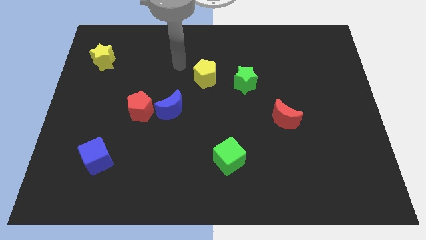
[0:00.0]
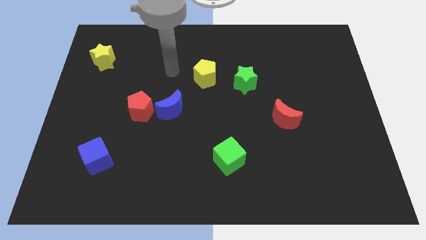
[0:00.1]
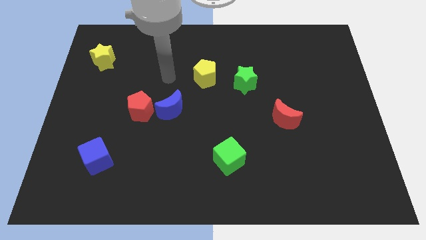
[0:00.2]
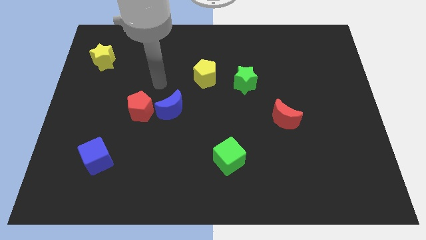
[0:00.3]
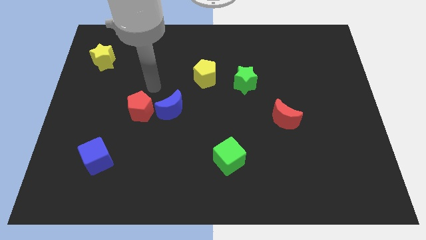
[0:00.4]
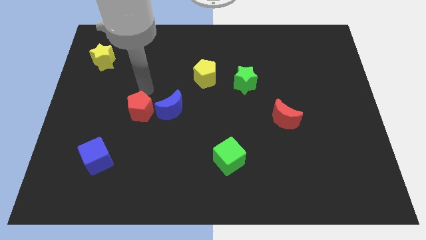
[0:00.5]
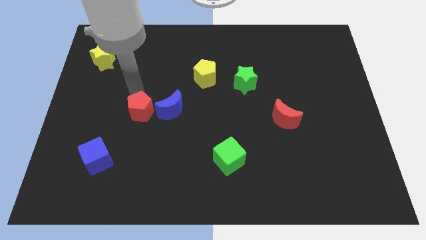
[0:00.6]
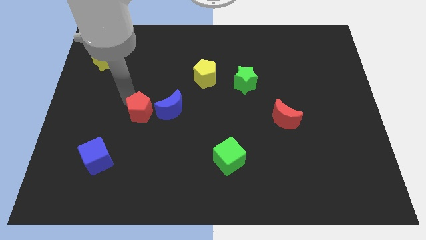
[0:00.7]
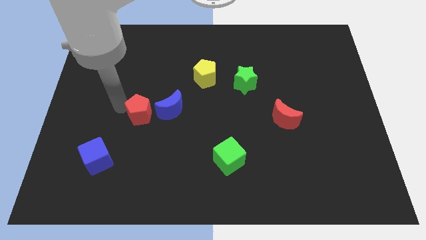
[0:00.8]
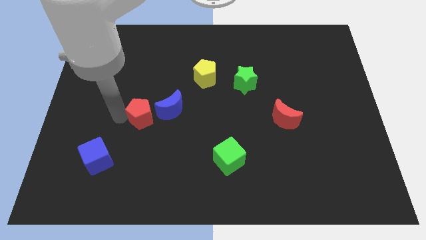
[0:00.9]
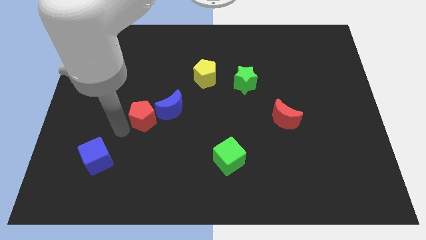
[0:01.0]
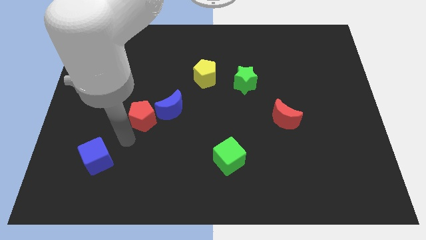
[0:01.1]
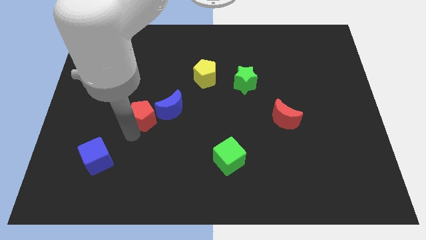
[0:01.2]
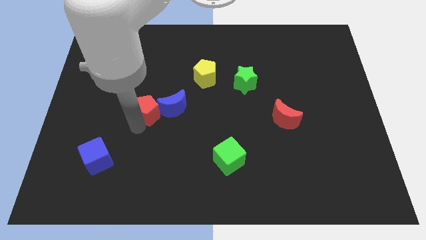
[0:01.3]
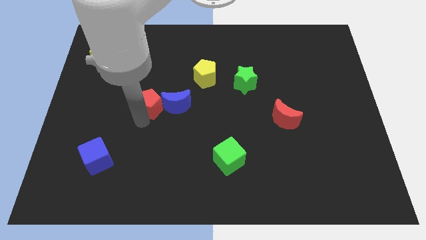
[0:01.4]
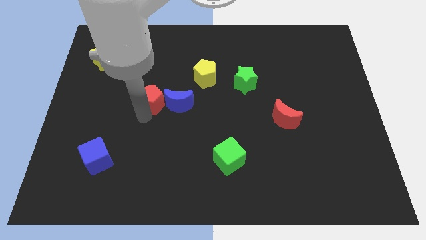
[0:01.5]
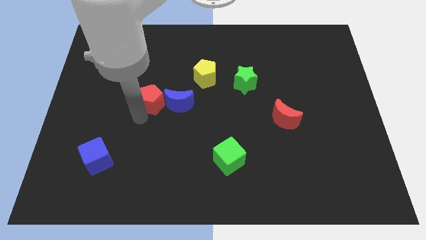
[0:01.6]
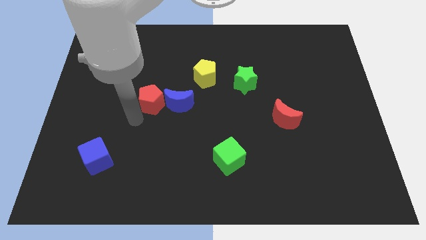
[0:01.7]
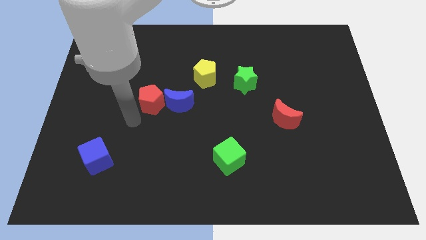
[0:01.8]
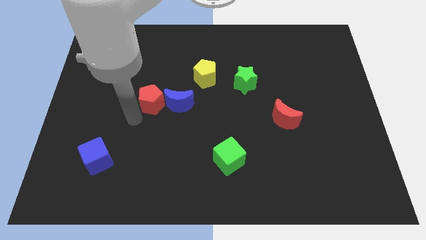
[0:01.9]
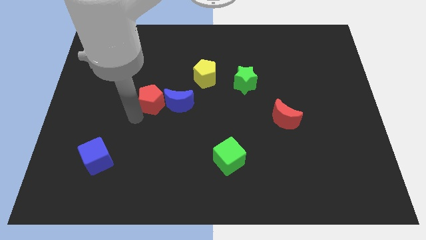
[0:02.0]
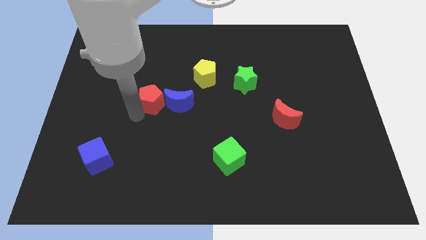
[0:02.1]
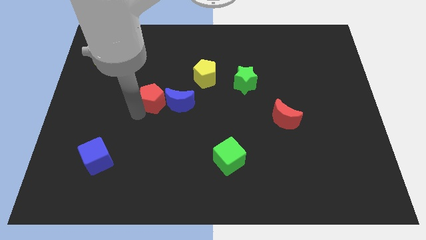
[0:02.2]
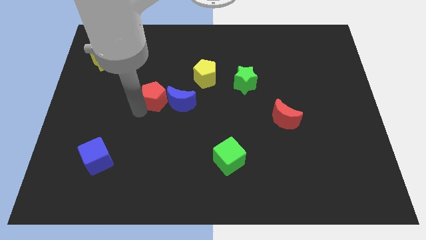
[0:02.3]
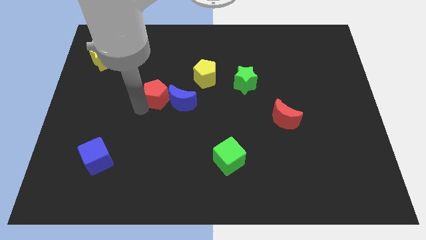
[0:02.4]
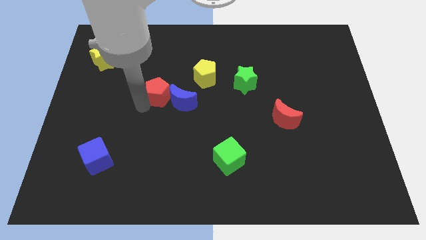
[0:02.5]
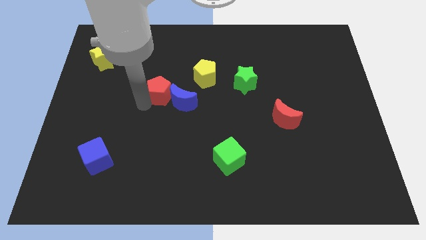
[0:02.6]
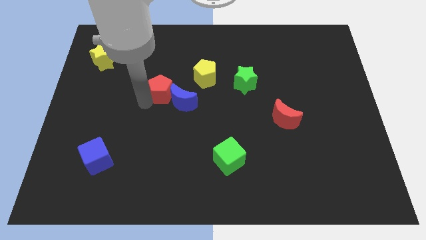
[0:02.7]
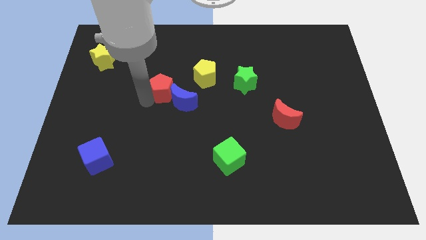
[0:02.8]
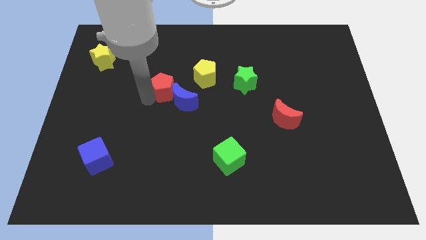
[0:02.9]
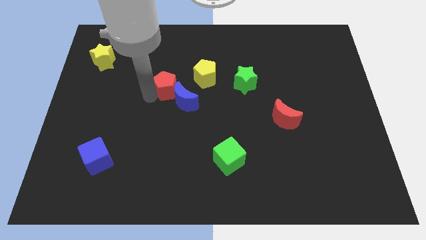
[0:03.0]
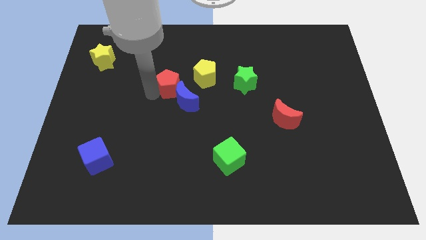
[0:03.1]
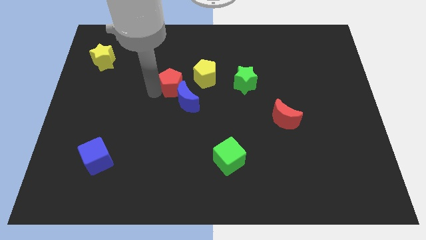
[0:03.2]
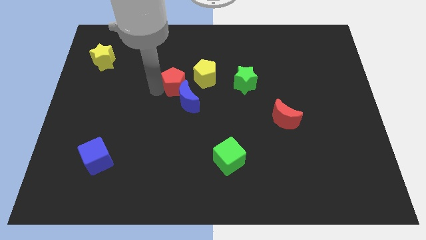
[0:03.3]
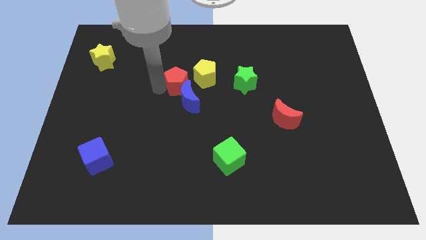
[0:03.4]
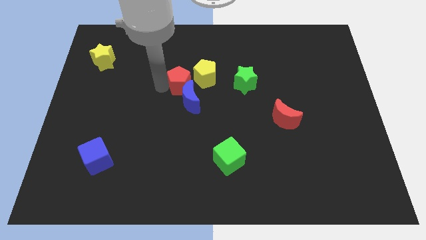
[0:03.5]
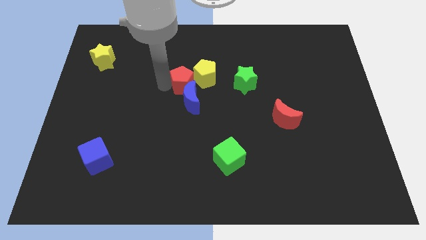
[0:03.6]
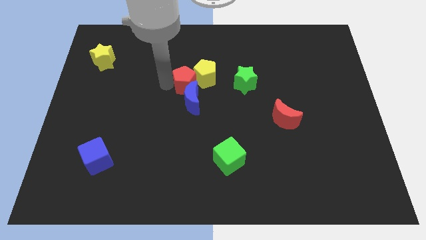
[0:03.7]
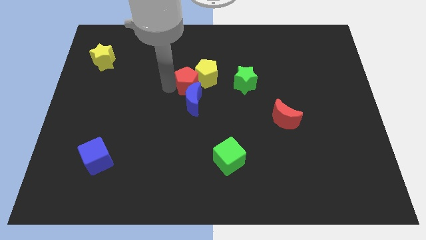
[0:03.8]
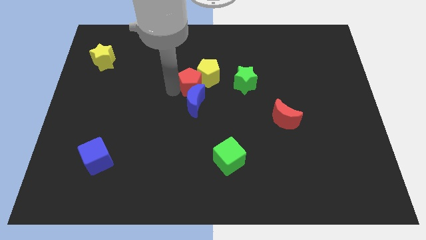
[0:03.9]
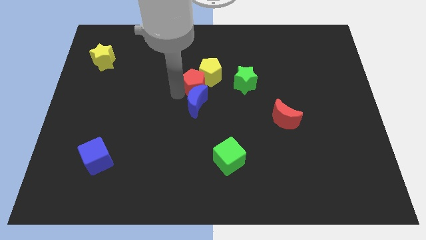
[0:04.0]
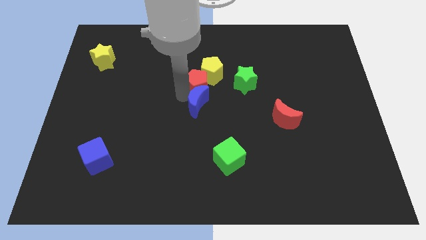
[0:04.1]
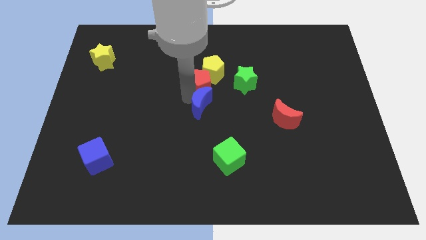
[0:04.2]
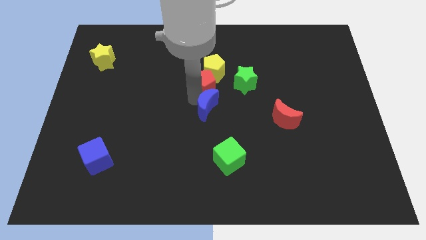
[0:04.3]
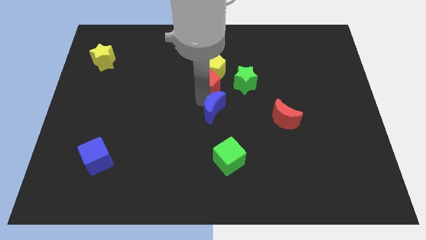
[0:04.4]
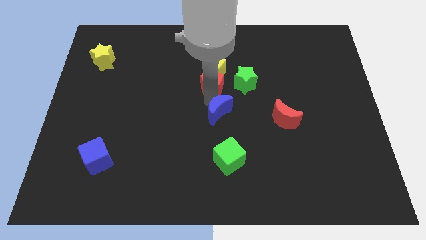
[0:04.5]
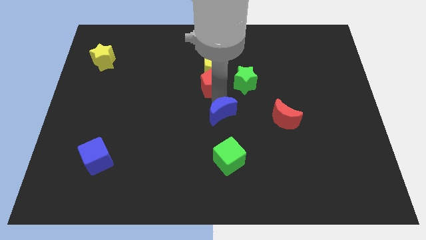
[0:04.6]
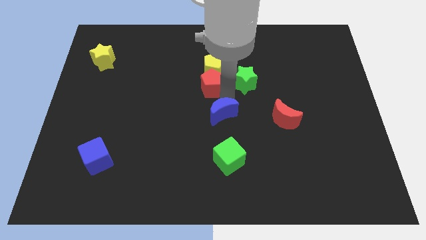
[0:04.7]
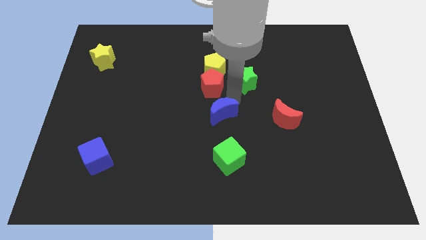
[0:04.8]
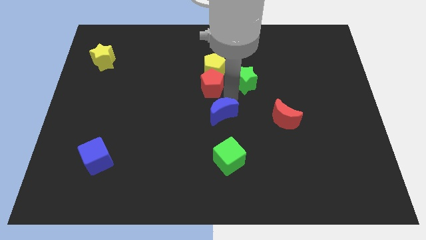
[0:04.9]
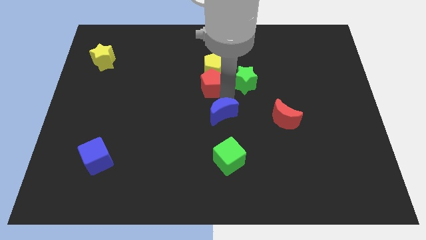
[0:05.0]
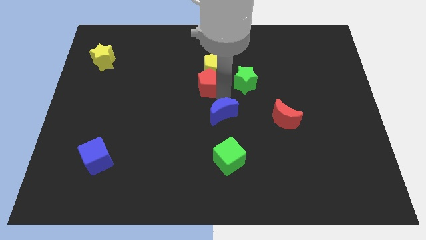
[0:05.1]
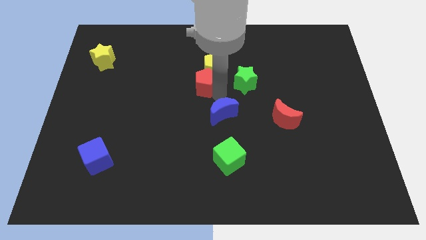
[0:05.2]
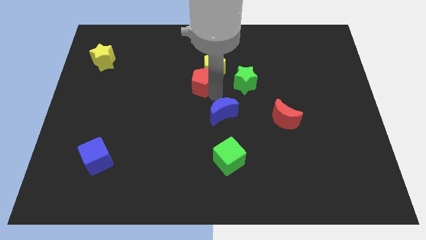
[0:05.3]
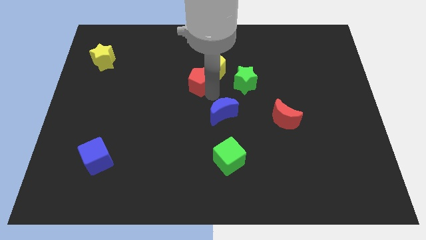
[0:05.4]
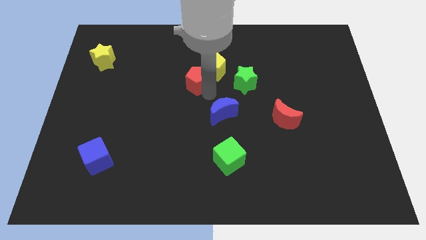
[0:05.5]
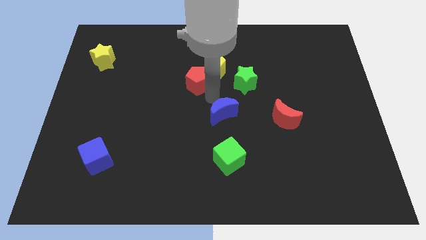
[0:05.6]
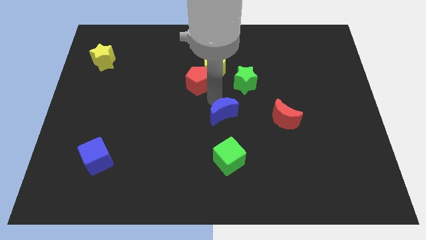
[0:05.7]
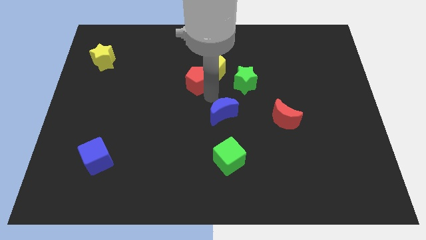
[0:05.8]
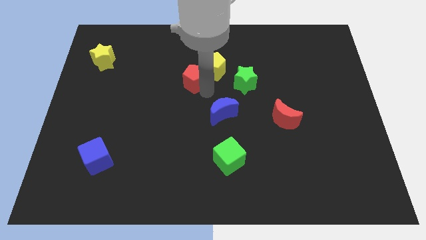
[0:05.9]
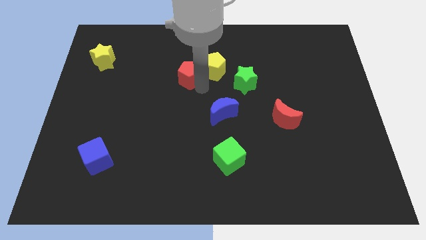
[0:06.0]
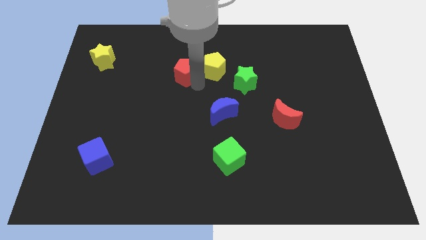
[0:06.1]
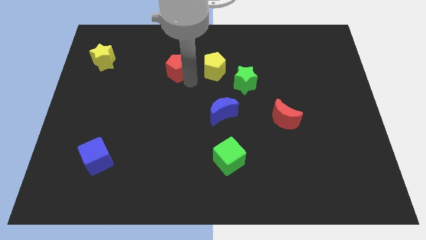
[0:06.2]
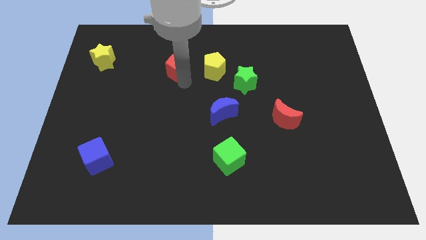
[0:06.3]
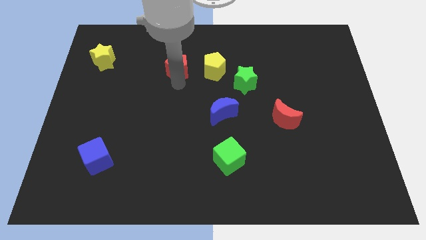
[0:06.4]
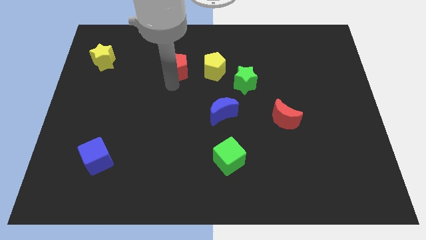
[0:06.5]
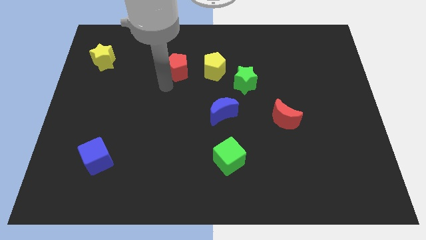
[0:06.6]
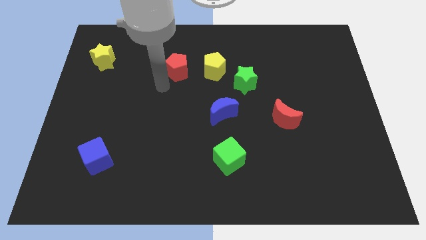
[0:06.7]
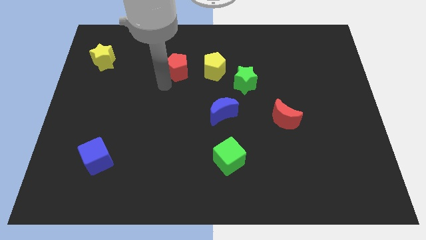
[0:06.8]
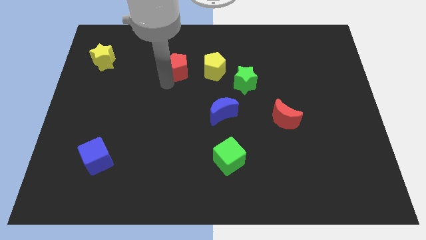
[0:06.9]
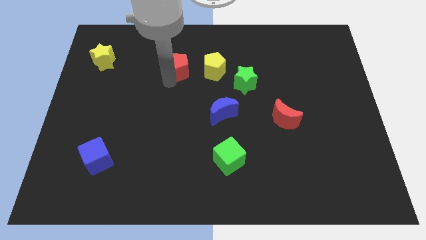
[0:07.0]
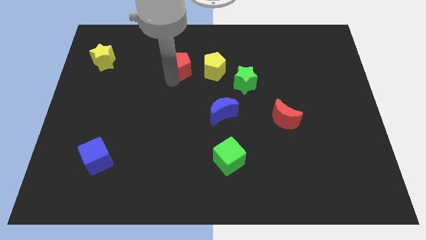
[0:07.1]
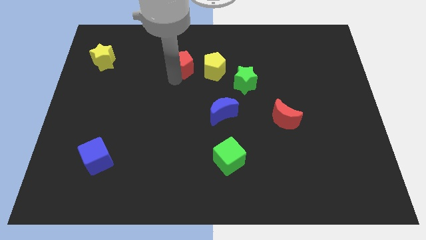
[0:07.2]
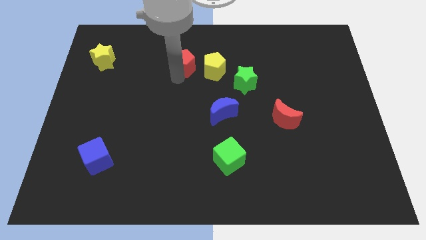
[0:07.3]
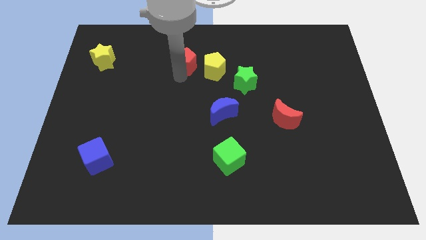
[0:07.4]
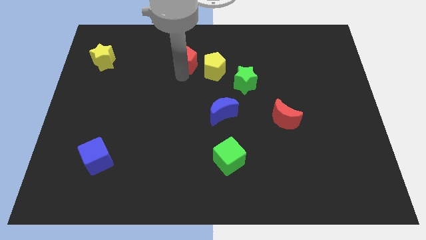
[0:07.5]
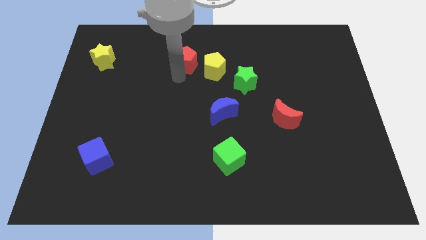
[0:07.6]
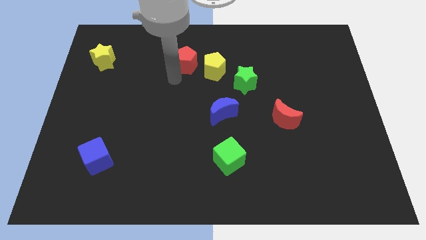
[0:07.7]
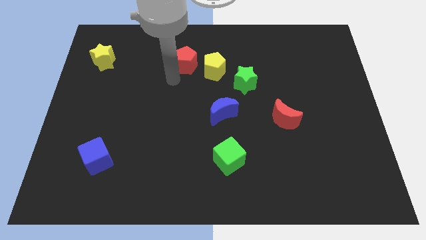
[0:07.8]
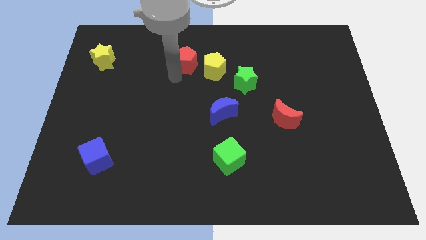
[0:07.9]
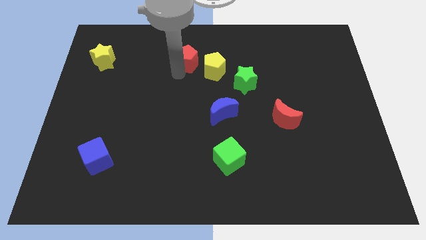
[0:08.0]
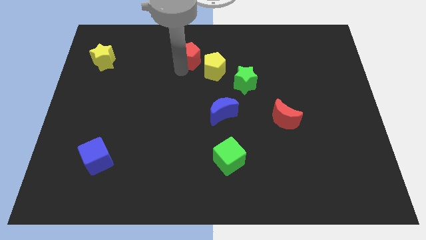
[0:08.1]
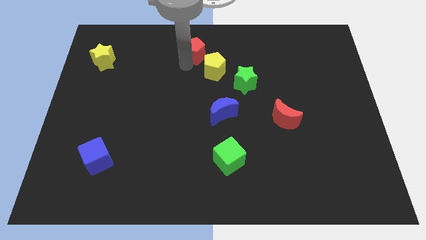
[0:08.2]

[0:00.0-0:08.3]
slide the red pentagon to the top side
